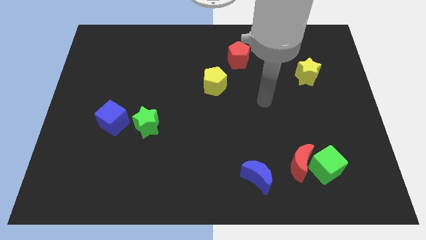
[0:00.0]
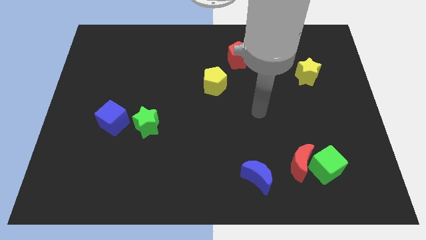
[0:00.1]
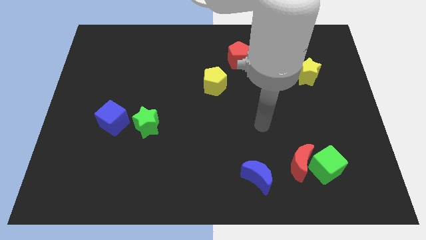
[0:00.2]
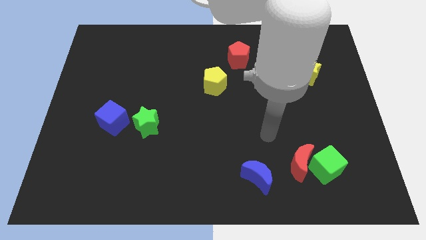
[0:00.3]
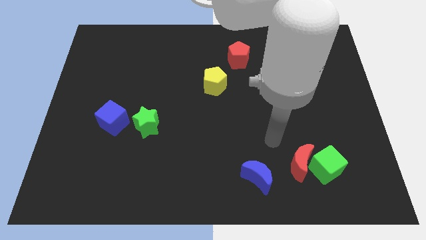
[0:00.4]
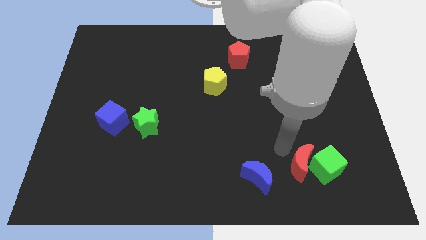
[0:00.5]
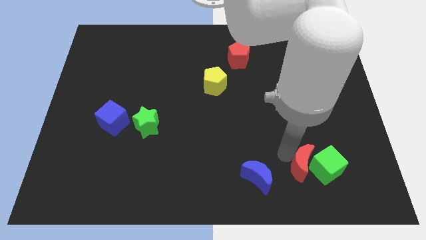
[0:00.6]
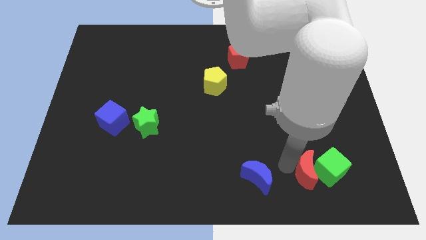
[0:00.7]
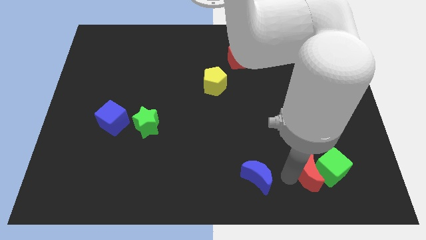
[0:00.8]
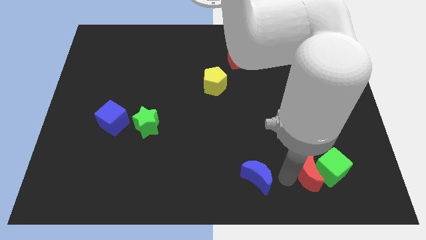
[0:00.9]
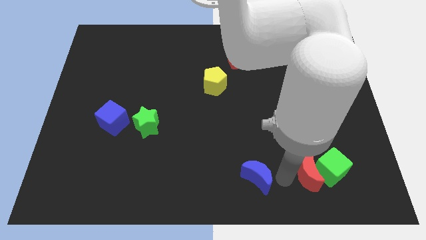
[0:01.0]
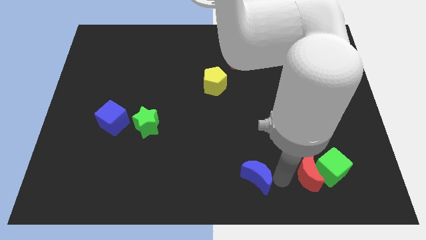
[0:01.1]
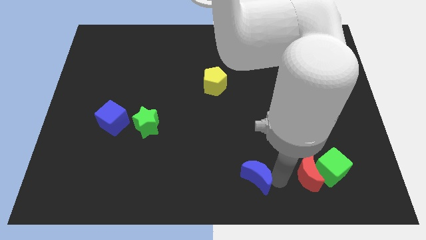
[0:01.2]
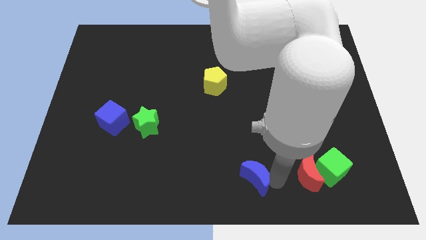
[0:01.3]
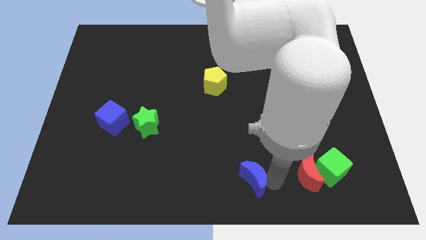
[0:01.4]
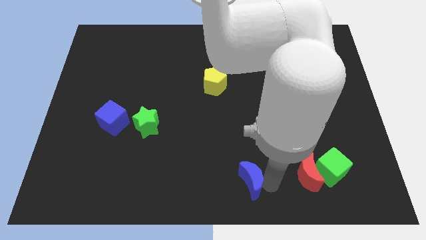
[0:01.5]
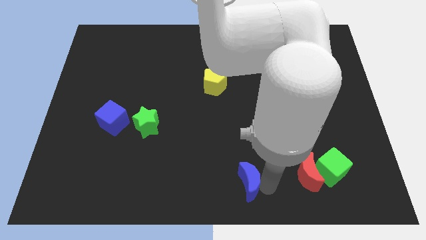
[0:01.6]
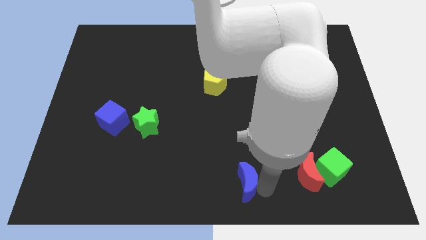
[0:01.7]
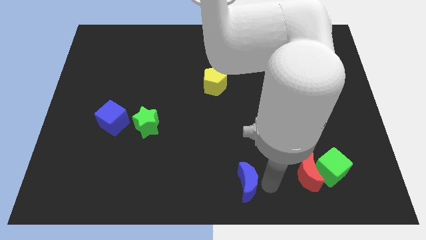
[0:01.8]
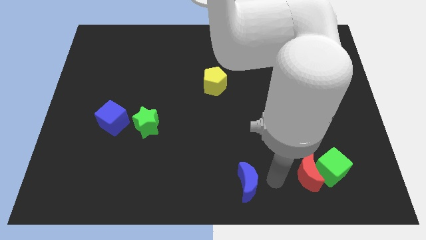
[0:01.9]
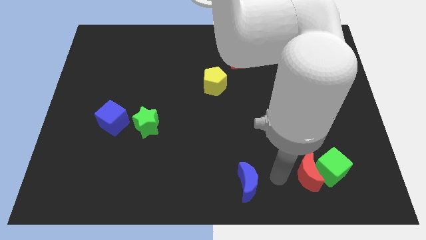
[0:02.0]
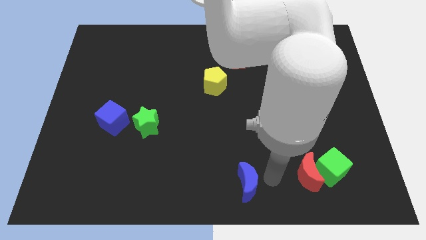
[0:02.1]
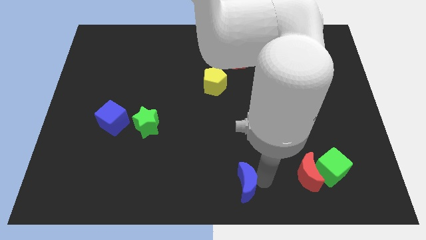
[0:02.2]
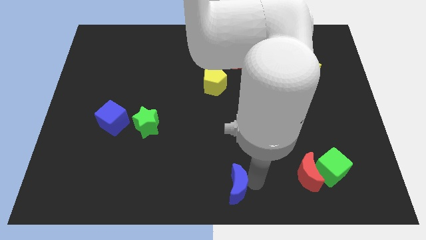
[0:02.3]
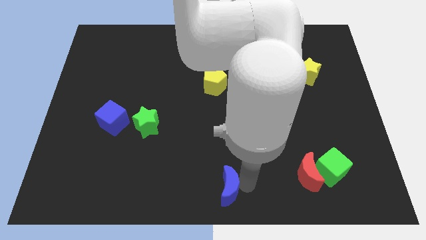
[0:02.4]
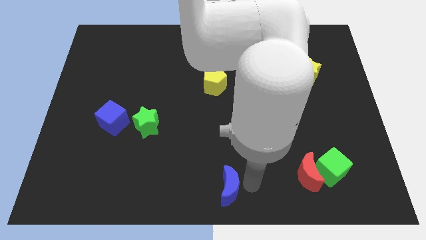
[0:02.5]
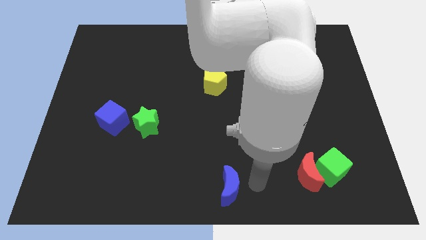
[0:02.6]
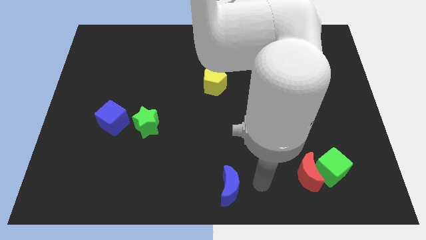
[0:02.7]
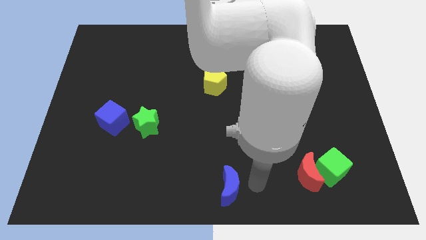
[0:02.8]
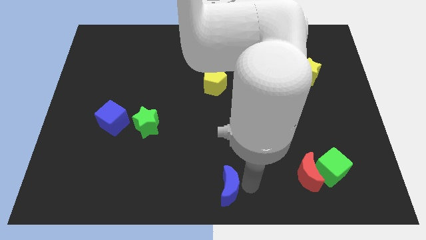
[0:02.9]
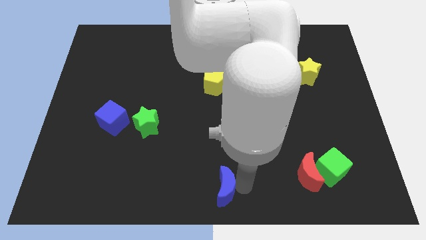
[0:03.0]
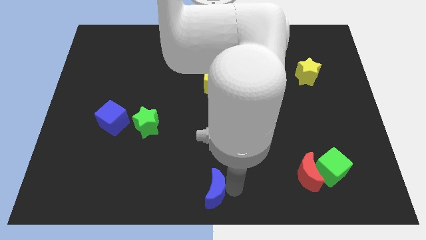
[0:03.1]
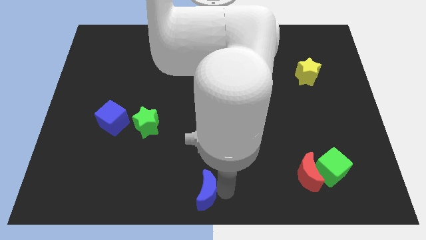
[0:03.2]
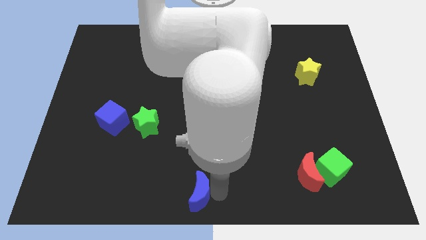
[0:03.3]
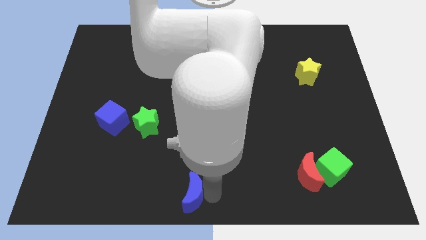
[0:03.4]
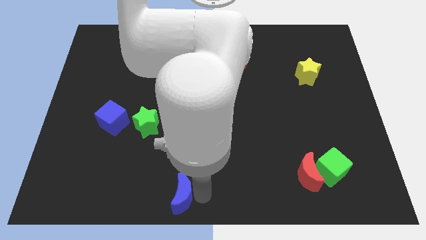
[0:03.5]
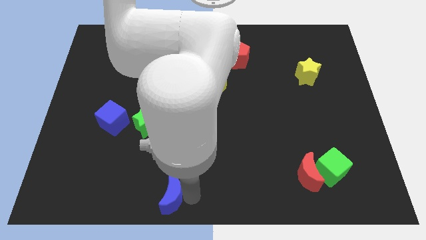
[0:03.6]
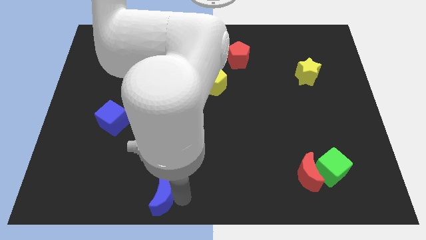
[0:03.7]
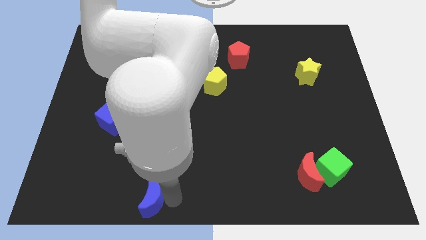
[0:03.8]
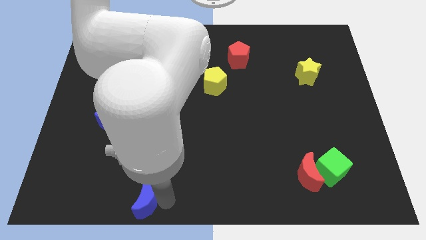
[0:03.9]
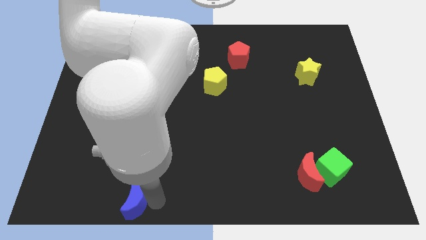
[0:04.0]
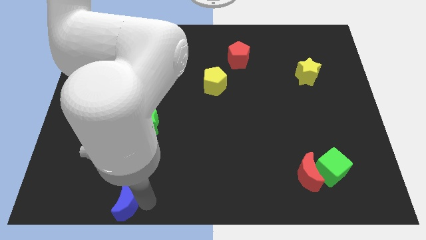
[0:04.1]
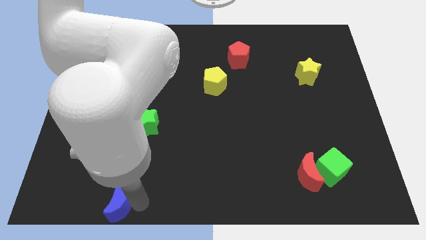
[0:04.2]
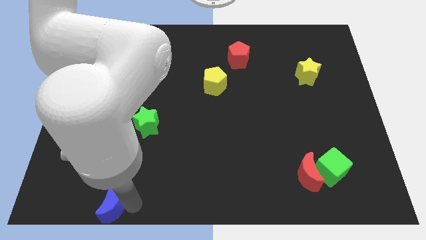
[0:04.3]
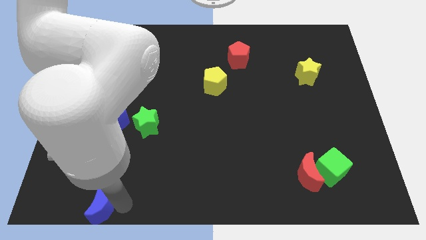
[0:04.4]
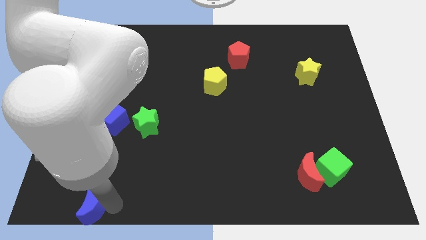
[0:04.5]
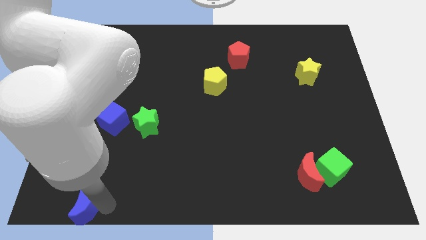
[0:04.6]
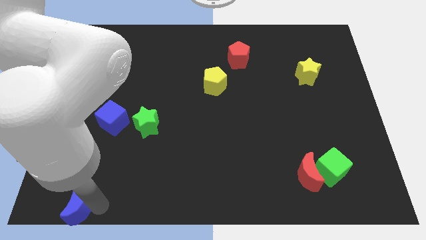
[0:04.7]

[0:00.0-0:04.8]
move the blue moon to the bottom left corner

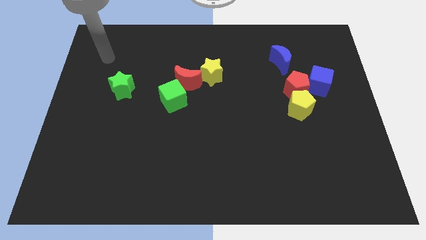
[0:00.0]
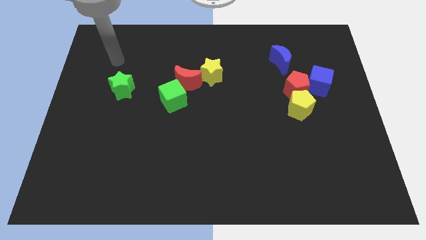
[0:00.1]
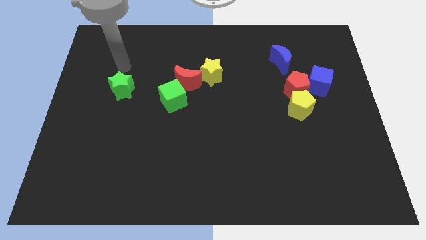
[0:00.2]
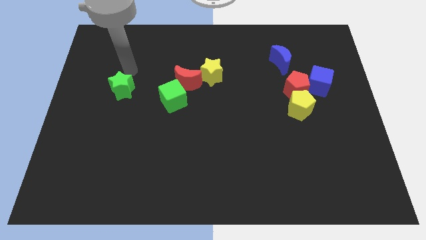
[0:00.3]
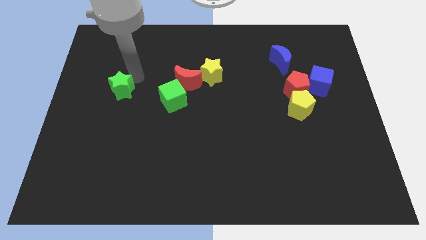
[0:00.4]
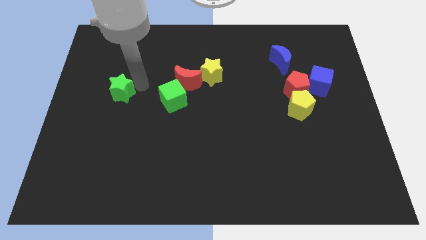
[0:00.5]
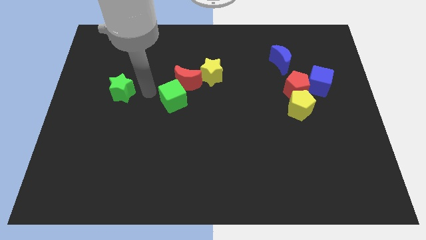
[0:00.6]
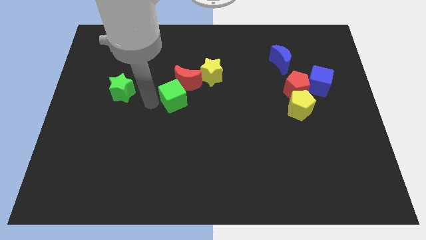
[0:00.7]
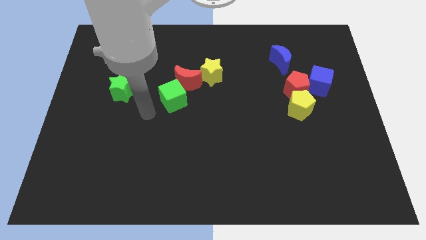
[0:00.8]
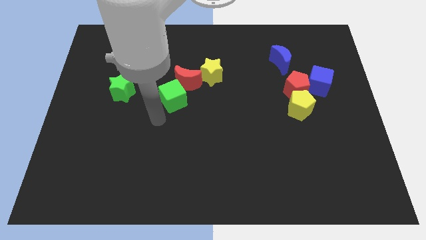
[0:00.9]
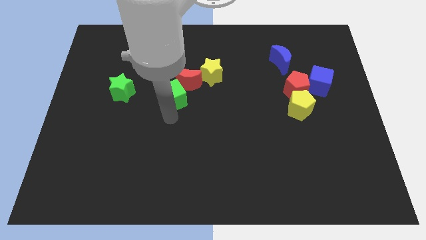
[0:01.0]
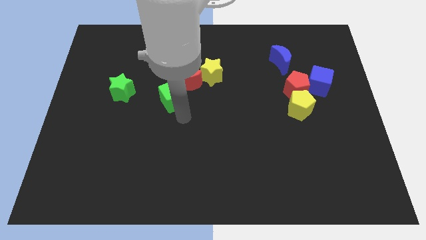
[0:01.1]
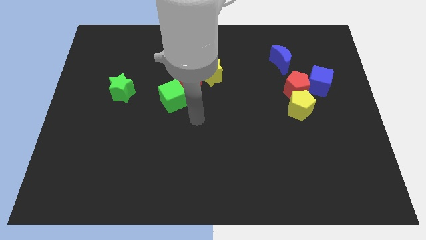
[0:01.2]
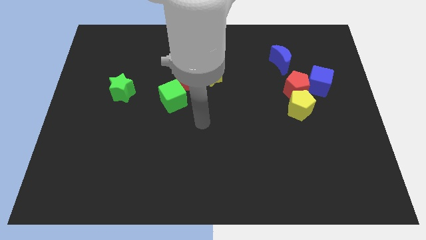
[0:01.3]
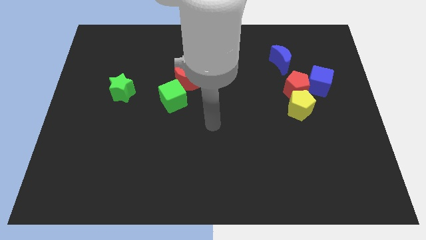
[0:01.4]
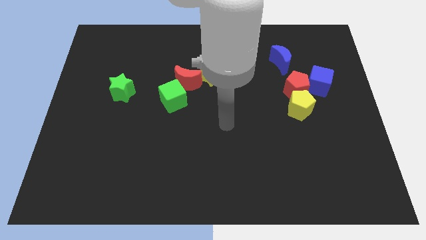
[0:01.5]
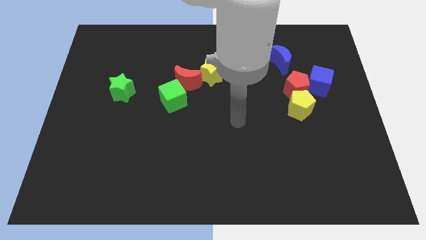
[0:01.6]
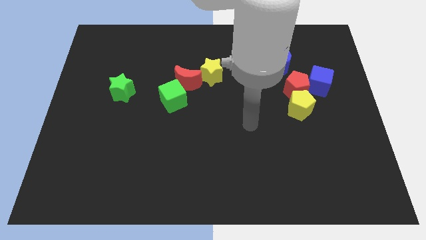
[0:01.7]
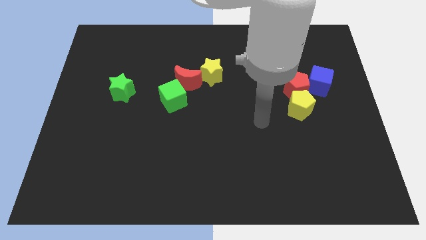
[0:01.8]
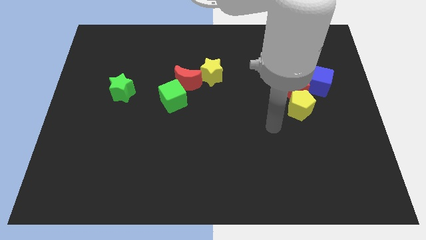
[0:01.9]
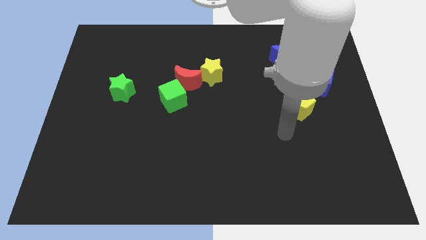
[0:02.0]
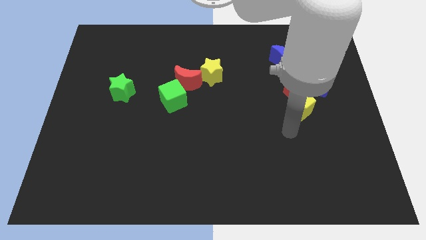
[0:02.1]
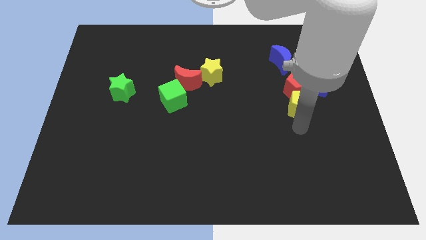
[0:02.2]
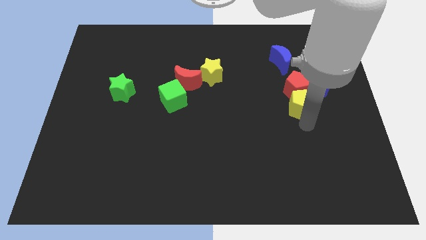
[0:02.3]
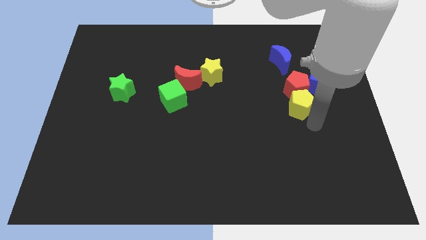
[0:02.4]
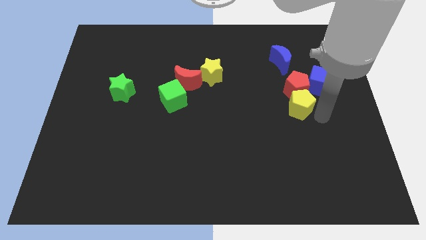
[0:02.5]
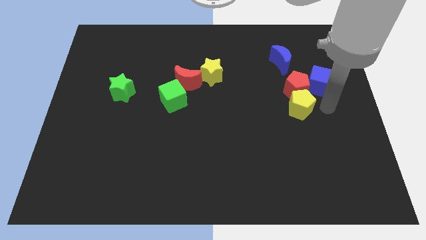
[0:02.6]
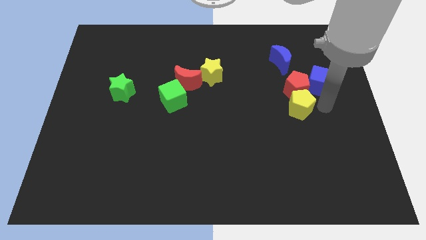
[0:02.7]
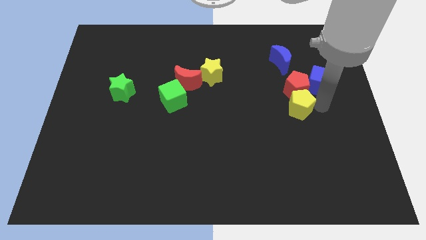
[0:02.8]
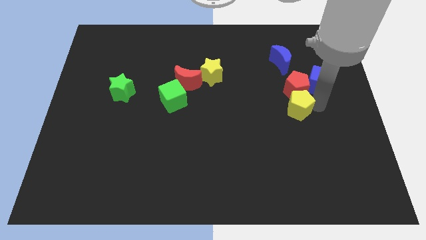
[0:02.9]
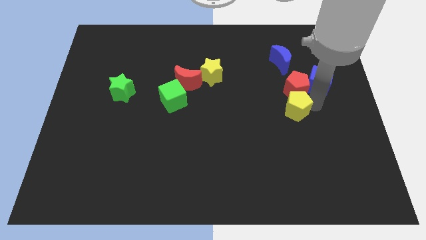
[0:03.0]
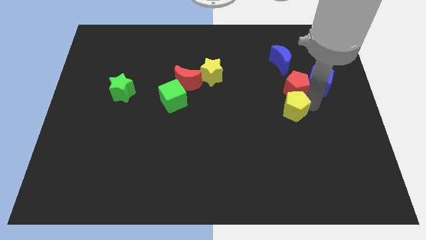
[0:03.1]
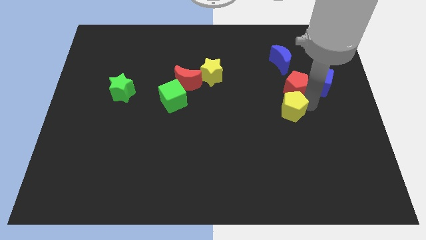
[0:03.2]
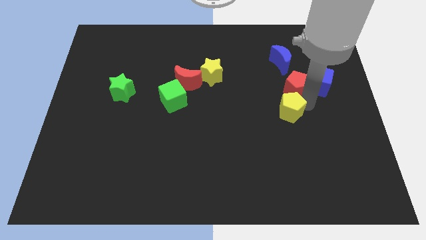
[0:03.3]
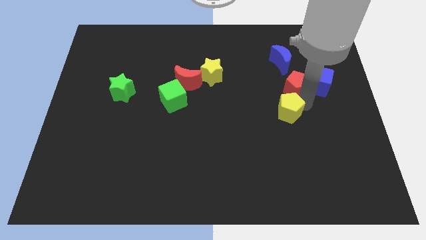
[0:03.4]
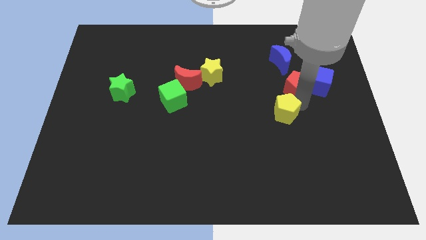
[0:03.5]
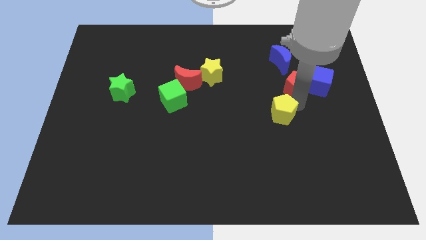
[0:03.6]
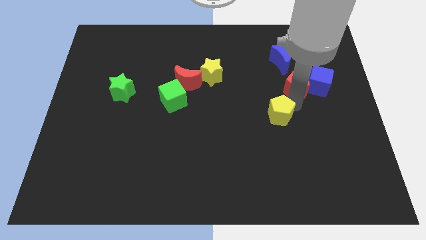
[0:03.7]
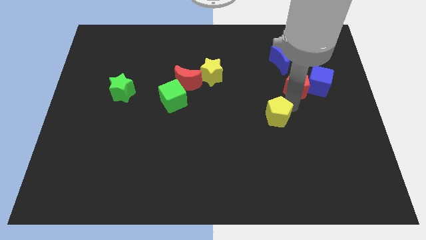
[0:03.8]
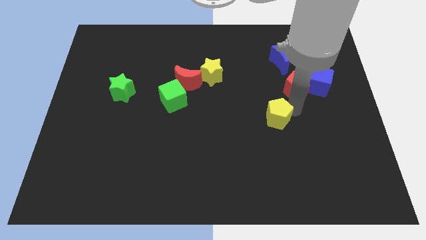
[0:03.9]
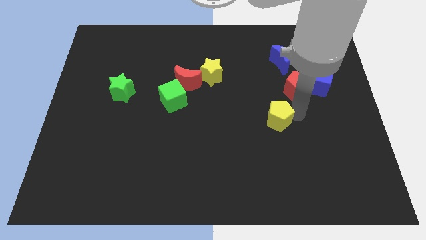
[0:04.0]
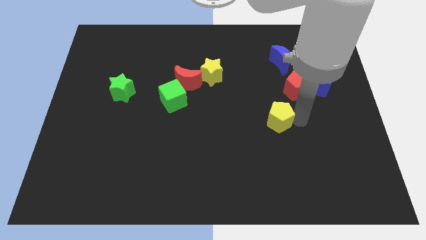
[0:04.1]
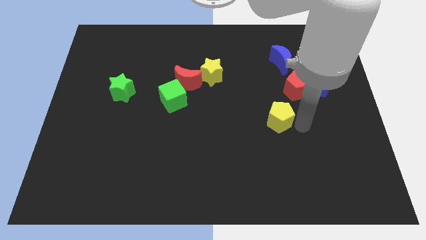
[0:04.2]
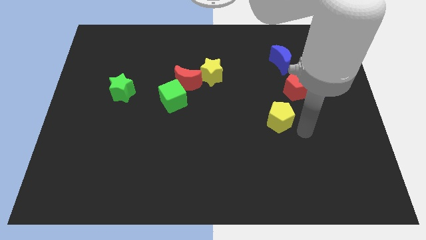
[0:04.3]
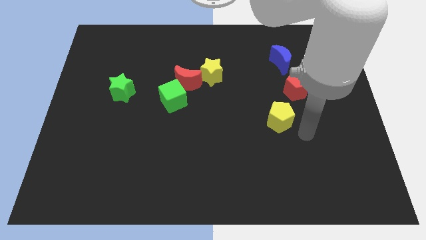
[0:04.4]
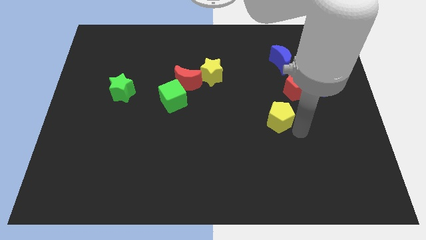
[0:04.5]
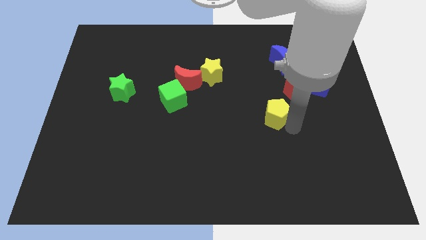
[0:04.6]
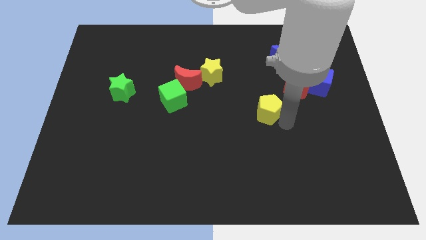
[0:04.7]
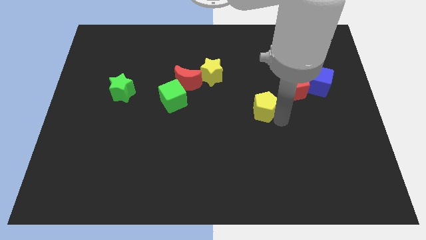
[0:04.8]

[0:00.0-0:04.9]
move the yellow pentagon to the center
